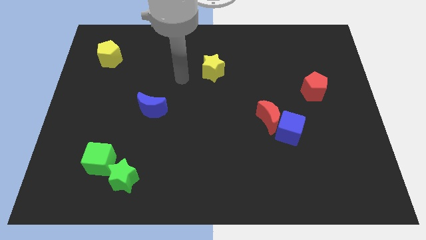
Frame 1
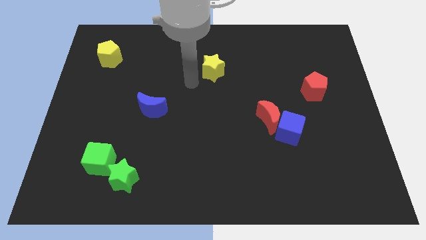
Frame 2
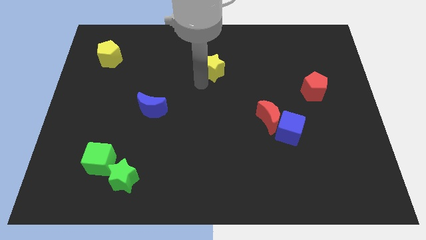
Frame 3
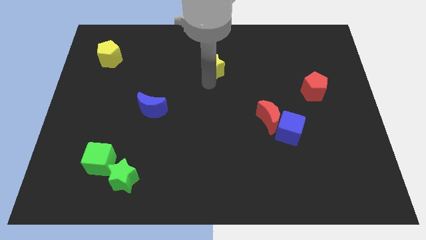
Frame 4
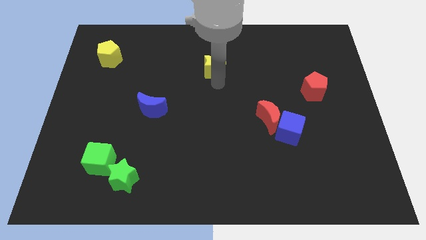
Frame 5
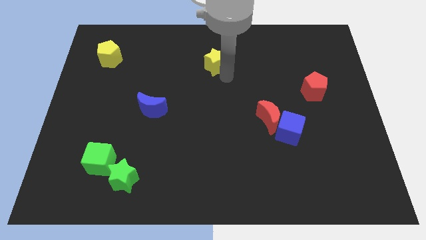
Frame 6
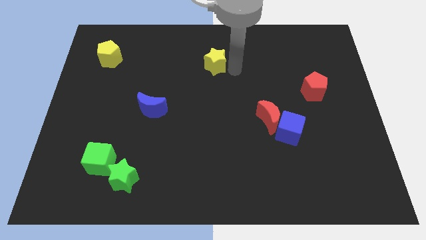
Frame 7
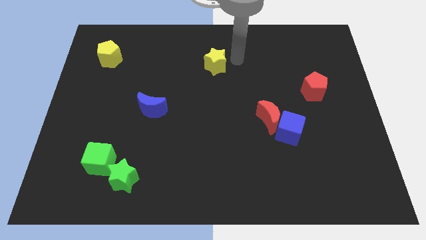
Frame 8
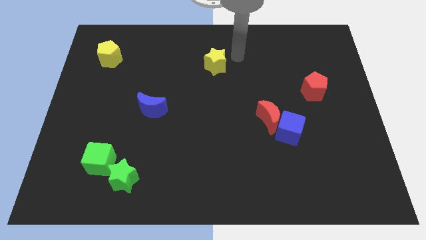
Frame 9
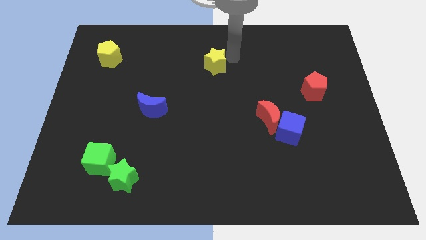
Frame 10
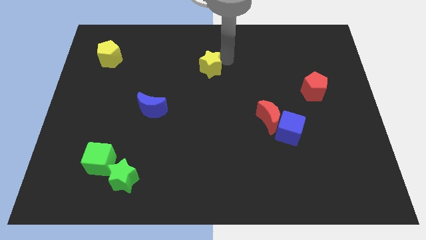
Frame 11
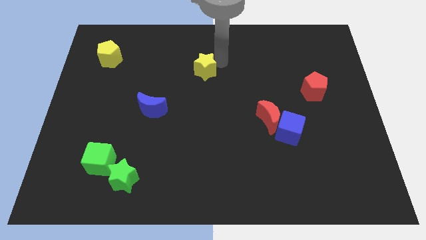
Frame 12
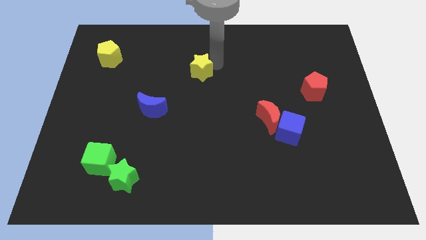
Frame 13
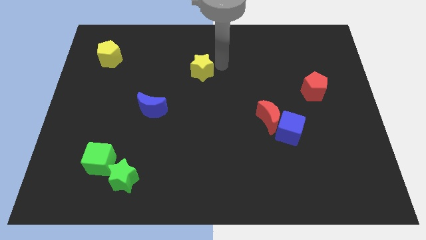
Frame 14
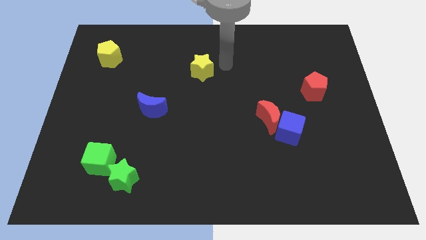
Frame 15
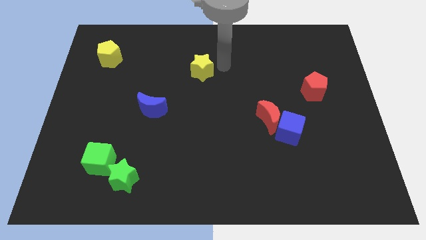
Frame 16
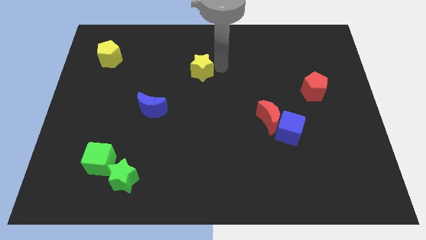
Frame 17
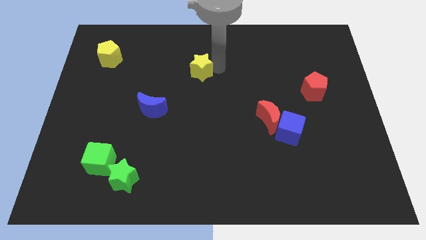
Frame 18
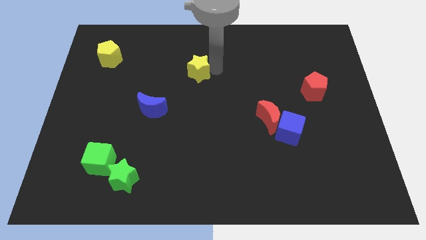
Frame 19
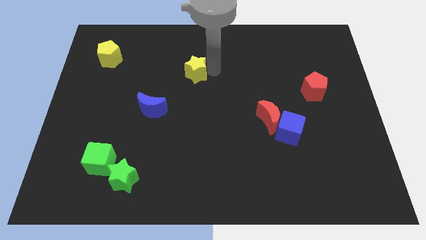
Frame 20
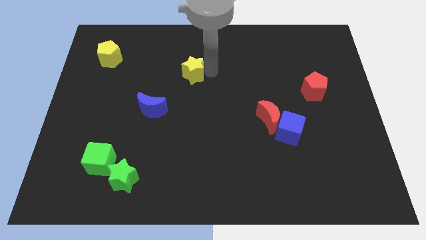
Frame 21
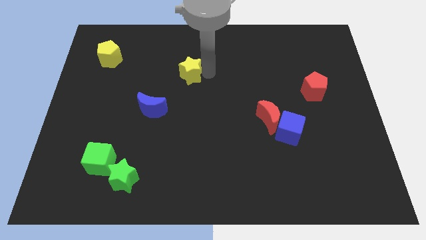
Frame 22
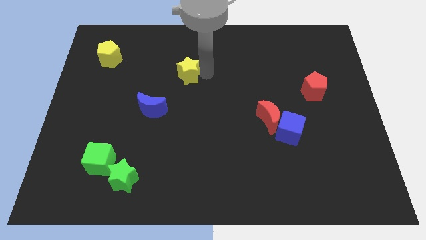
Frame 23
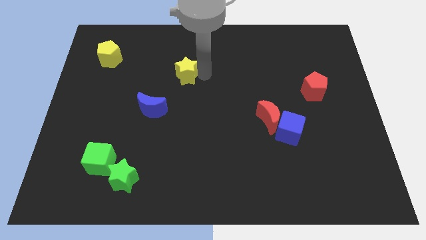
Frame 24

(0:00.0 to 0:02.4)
slightly move the yellow star to the left

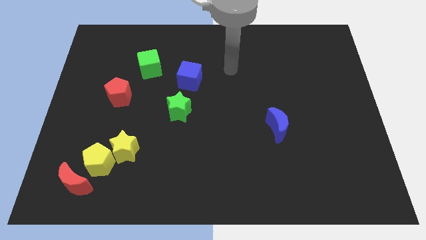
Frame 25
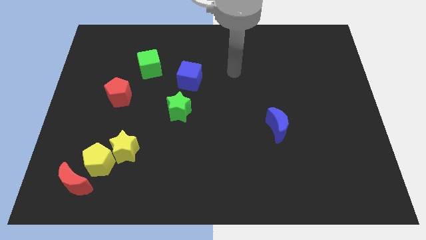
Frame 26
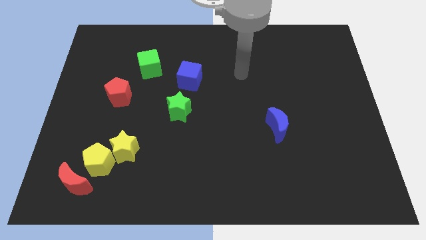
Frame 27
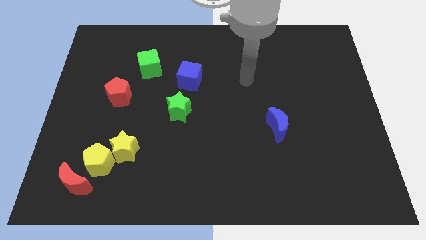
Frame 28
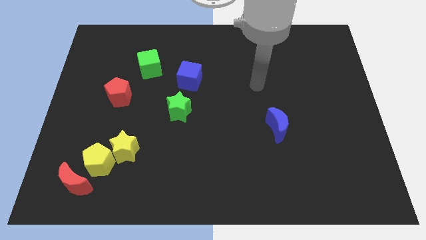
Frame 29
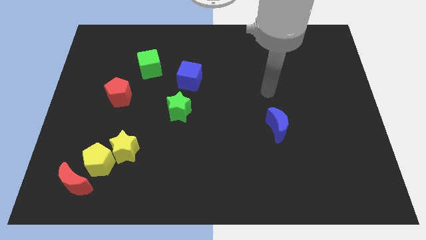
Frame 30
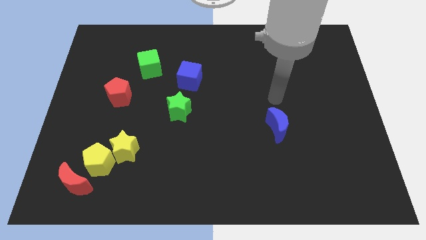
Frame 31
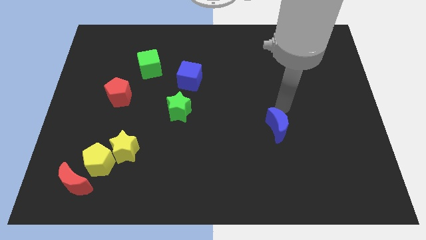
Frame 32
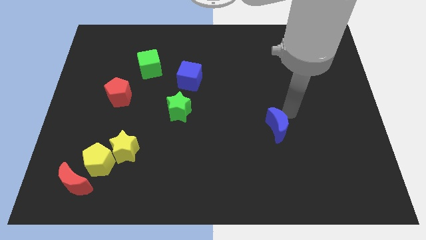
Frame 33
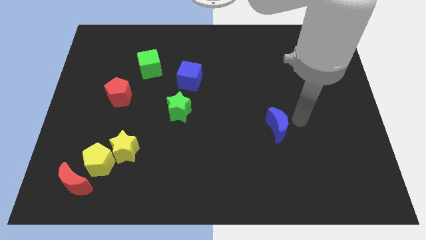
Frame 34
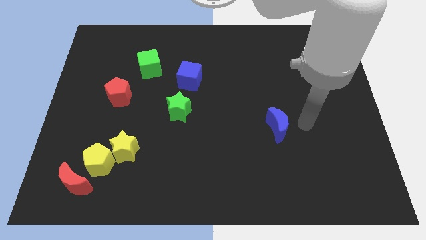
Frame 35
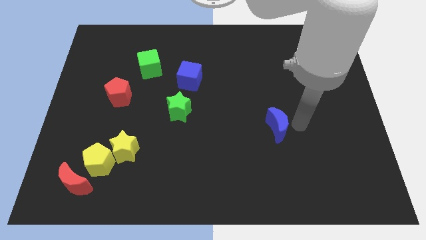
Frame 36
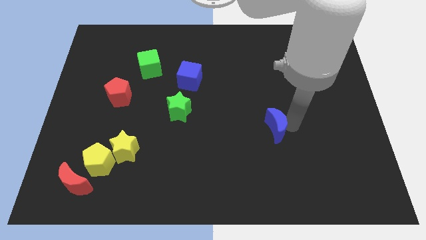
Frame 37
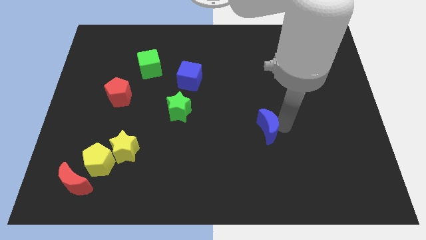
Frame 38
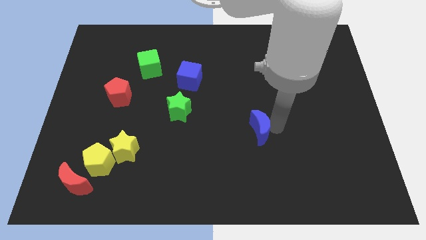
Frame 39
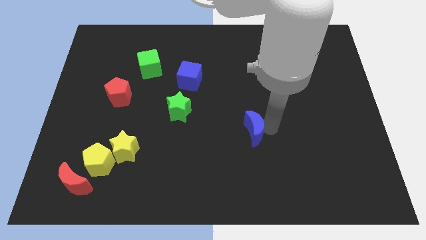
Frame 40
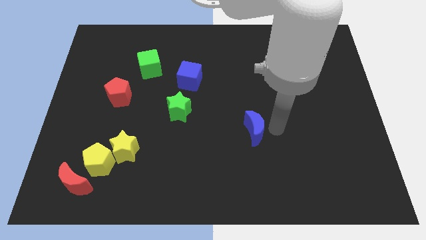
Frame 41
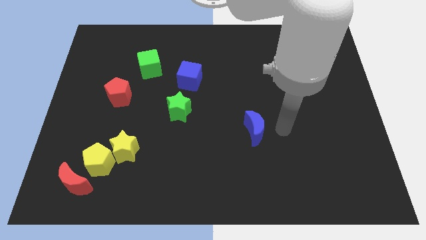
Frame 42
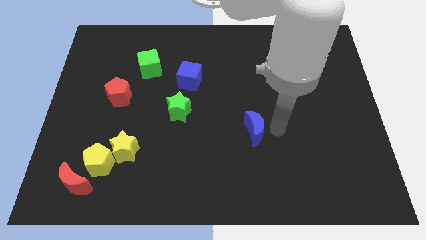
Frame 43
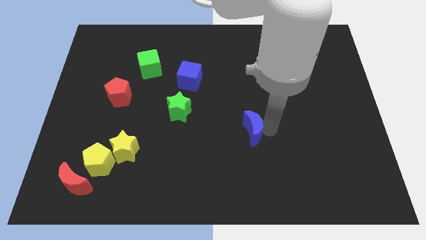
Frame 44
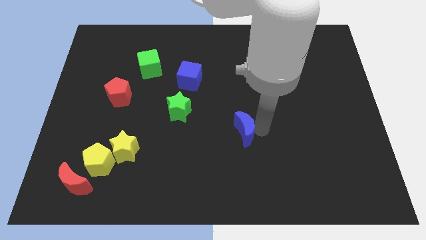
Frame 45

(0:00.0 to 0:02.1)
push the blue moon somewhat to the left

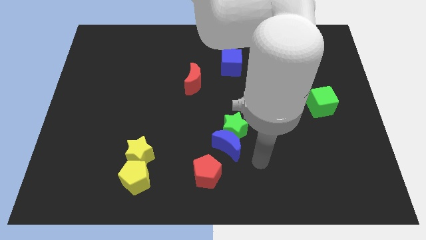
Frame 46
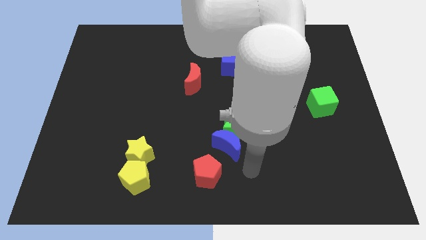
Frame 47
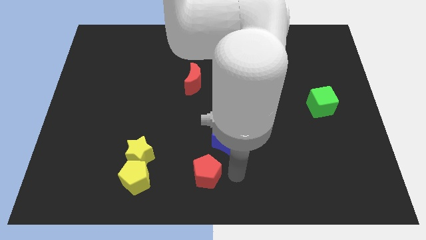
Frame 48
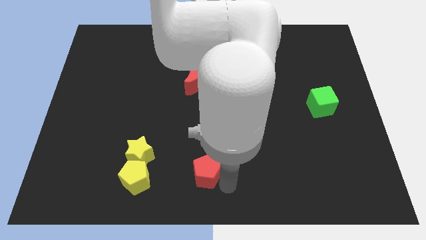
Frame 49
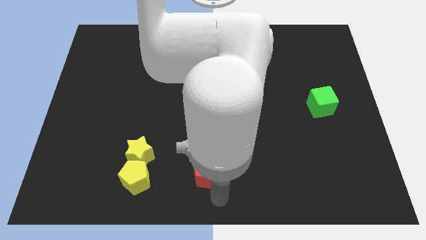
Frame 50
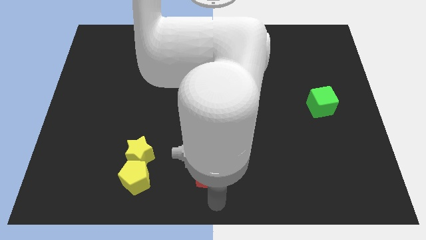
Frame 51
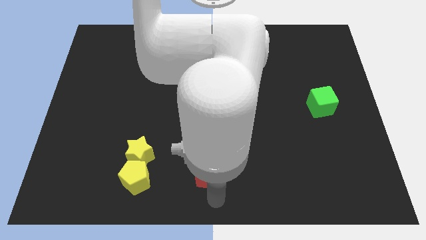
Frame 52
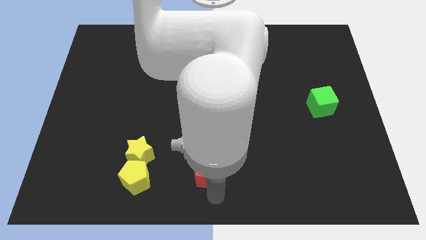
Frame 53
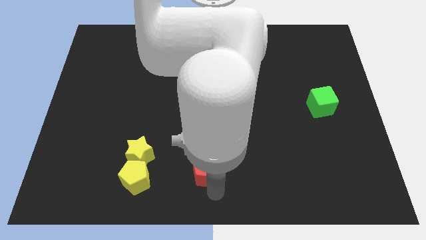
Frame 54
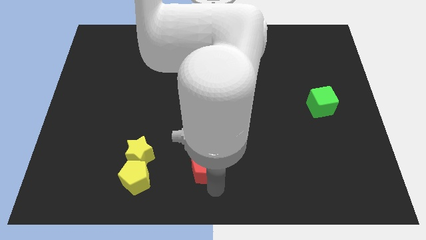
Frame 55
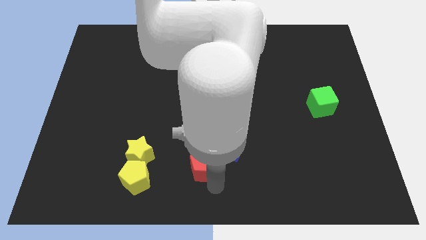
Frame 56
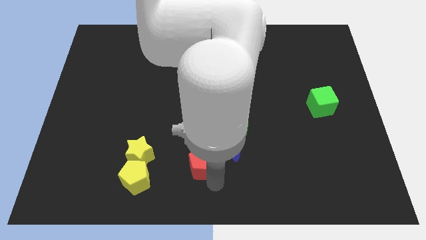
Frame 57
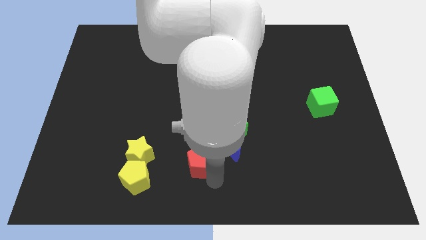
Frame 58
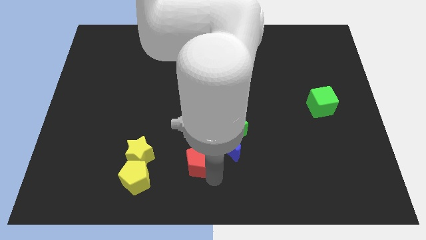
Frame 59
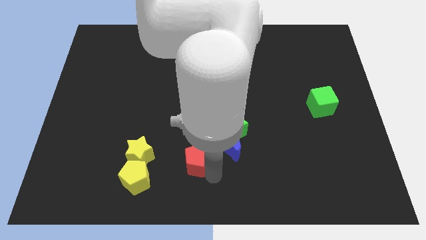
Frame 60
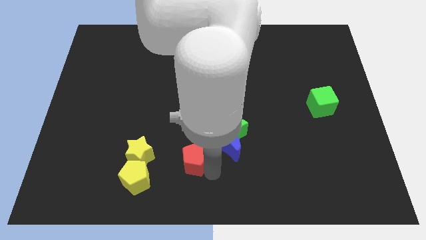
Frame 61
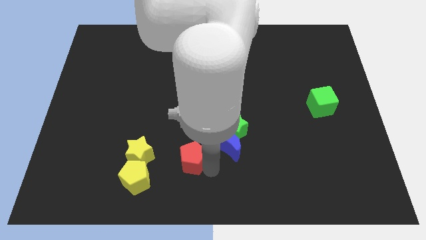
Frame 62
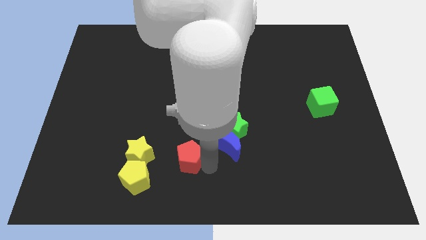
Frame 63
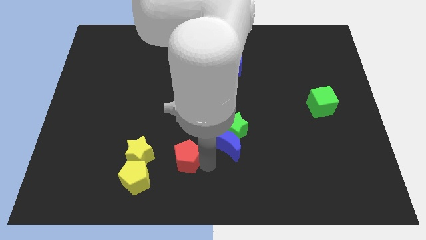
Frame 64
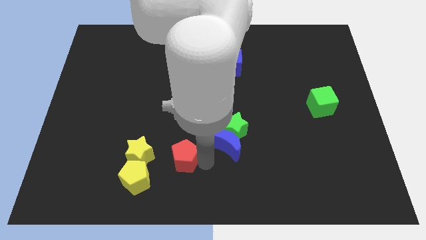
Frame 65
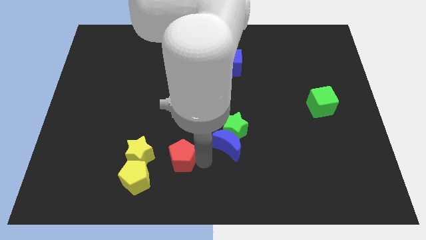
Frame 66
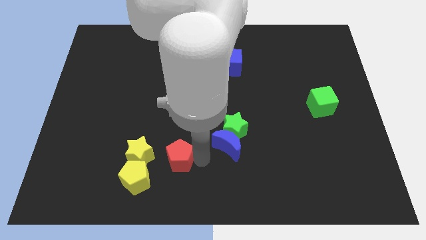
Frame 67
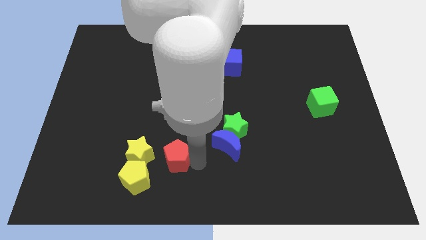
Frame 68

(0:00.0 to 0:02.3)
move the red pentagon up and to the left a bit

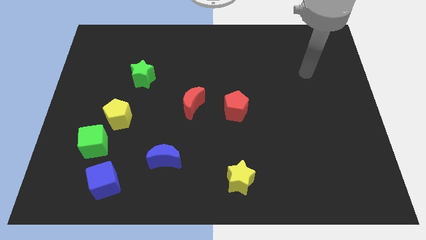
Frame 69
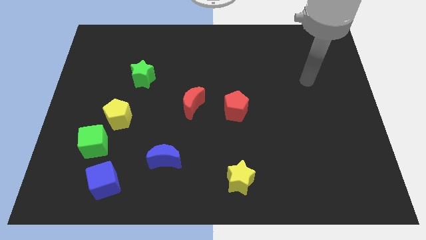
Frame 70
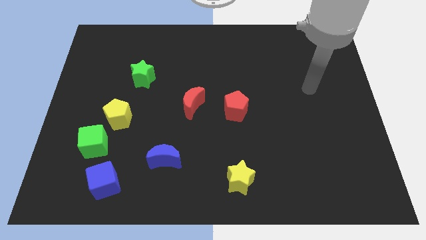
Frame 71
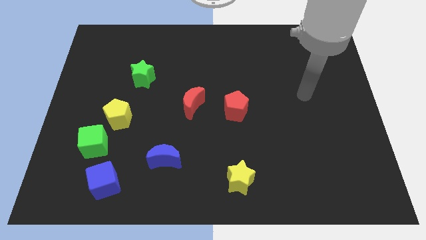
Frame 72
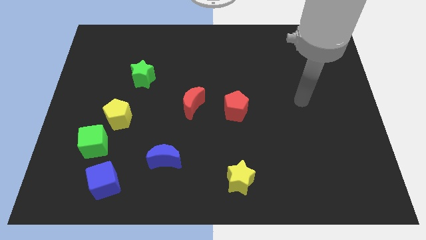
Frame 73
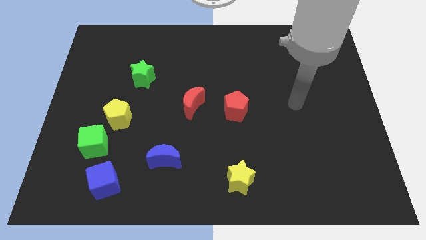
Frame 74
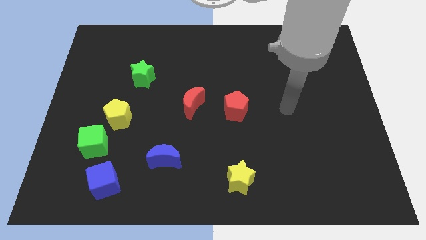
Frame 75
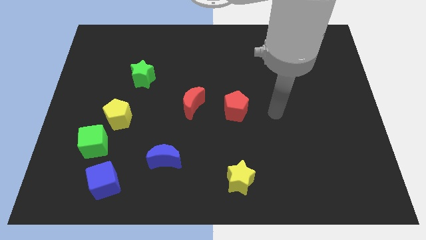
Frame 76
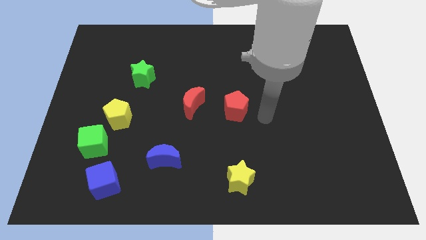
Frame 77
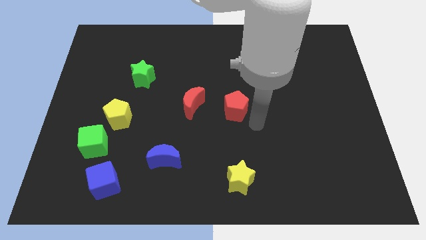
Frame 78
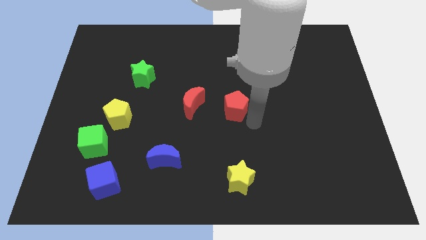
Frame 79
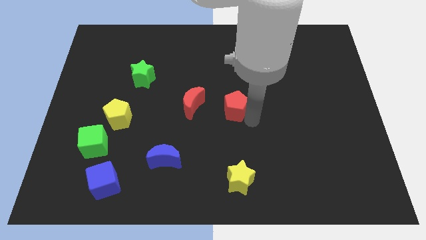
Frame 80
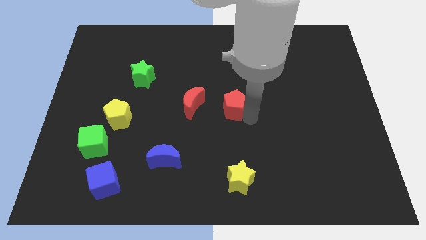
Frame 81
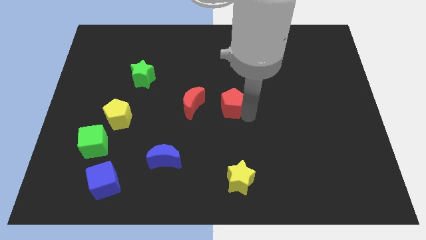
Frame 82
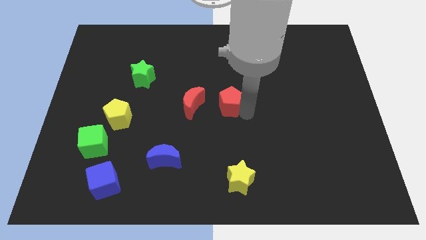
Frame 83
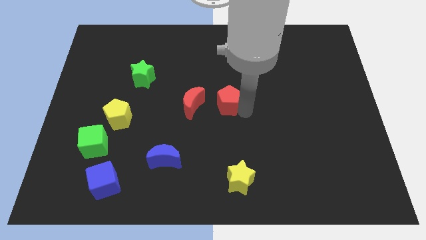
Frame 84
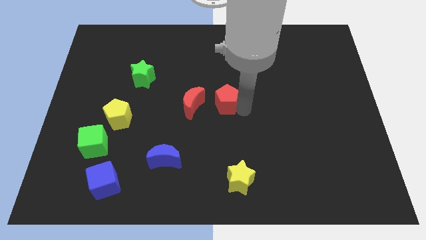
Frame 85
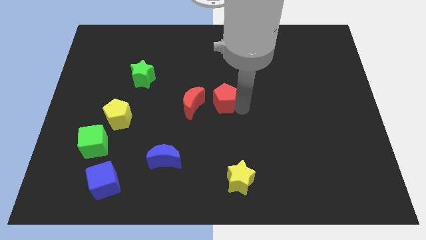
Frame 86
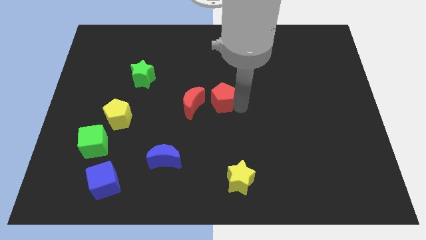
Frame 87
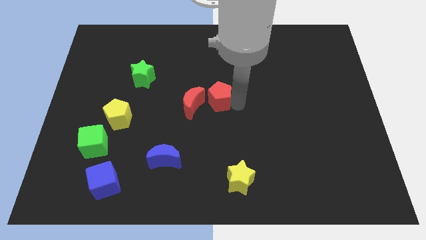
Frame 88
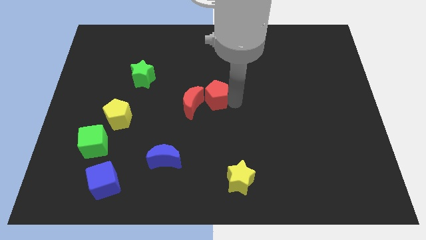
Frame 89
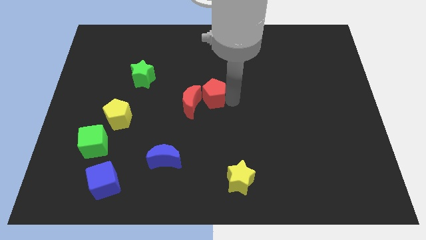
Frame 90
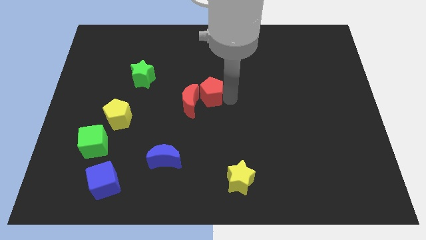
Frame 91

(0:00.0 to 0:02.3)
slide the red pentagon up and then left a little
